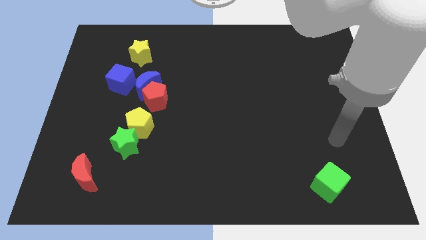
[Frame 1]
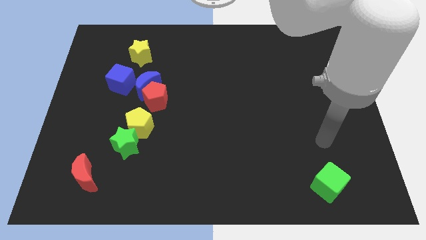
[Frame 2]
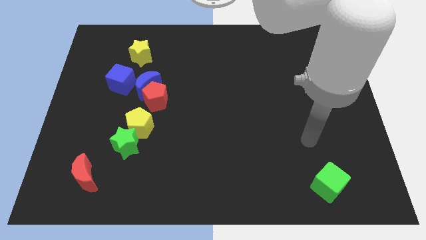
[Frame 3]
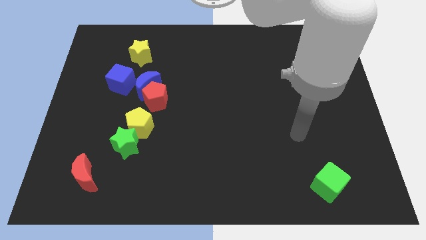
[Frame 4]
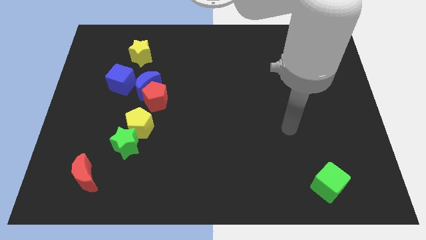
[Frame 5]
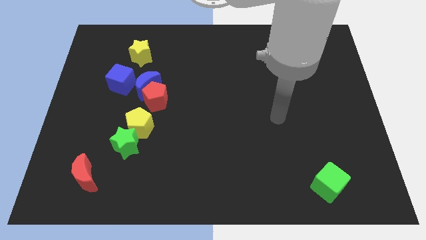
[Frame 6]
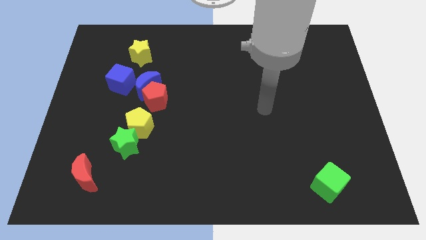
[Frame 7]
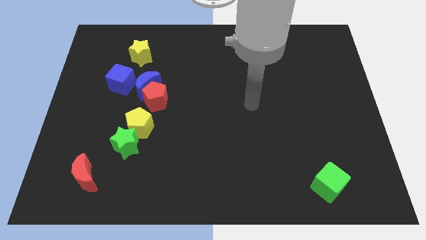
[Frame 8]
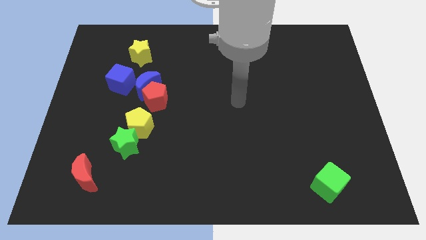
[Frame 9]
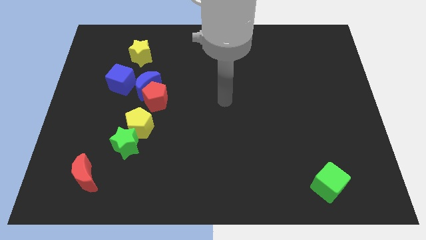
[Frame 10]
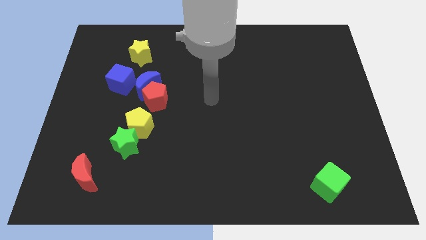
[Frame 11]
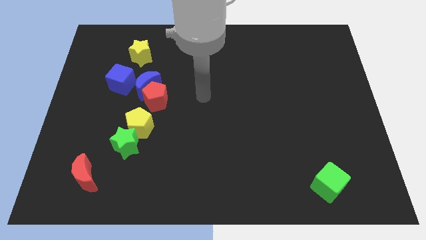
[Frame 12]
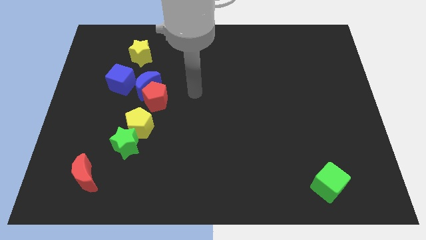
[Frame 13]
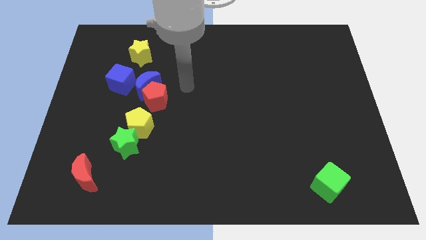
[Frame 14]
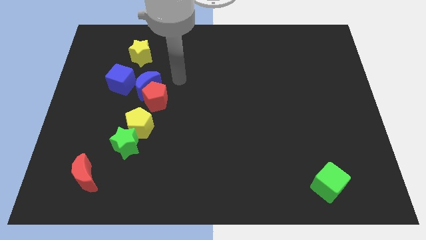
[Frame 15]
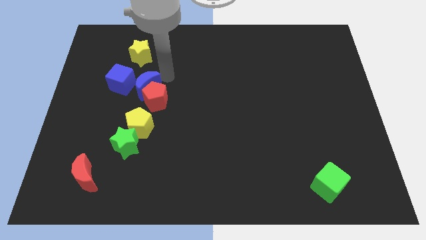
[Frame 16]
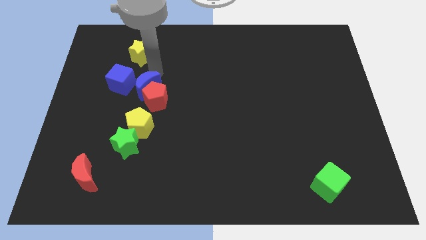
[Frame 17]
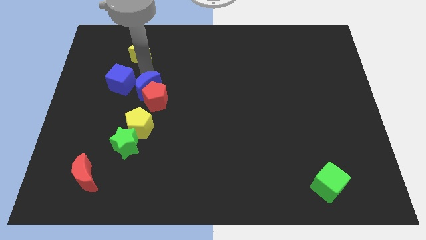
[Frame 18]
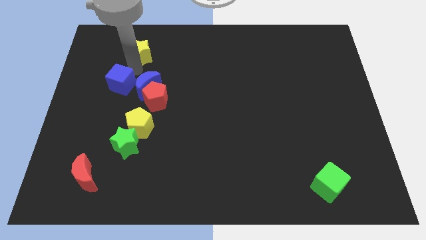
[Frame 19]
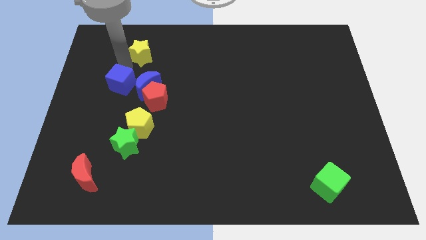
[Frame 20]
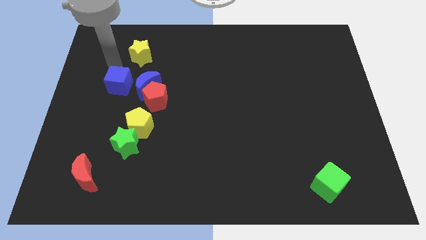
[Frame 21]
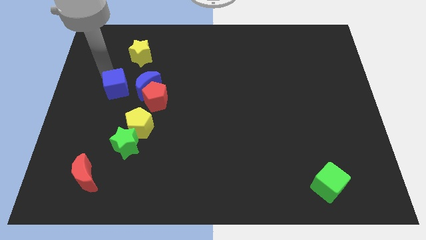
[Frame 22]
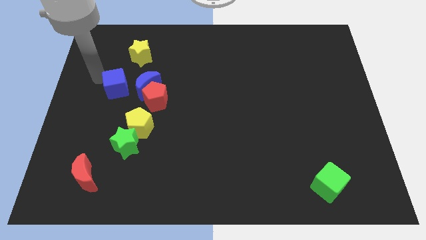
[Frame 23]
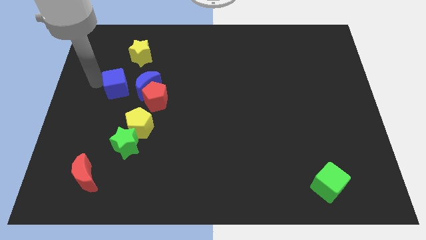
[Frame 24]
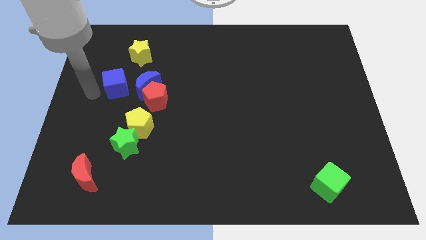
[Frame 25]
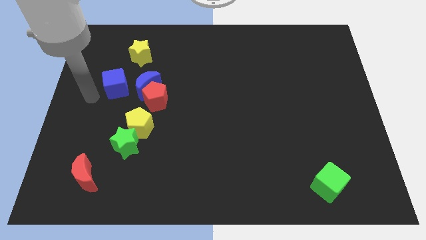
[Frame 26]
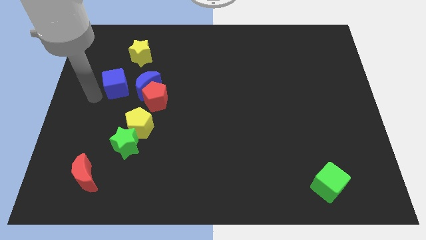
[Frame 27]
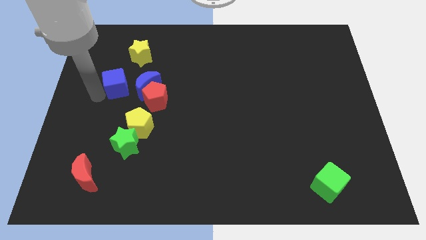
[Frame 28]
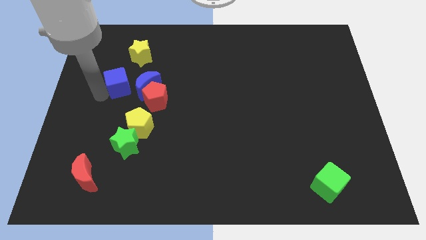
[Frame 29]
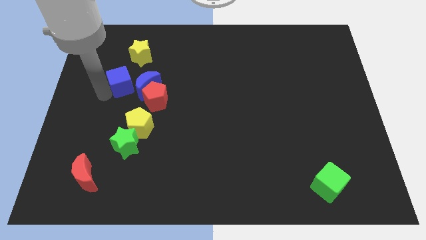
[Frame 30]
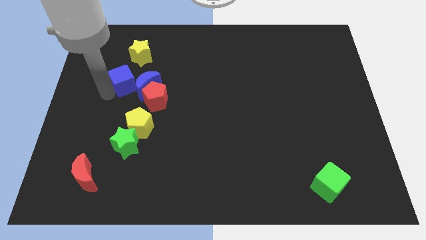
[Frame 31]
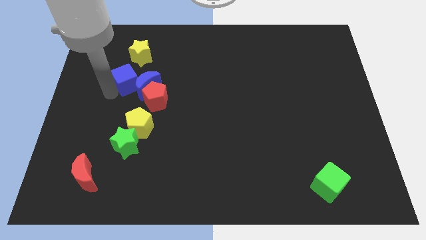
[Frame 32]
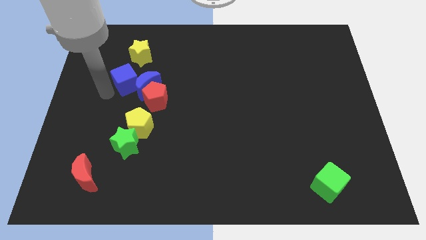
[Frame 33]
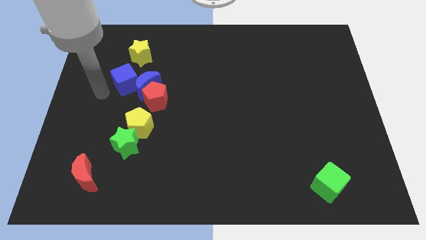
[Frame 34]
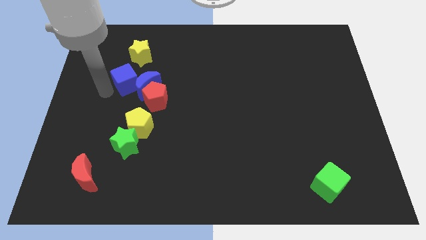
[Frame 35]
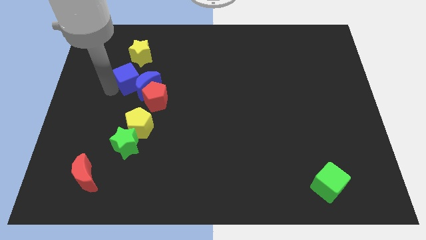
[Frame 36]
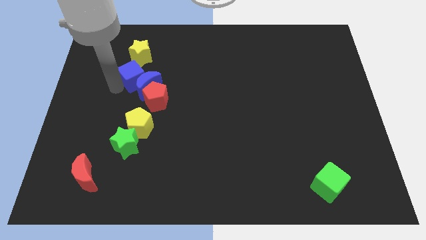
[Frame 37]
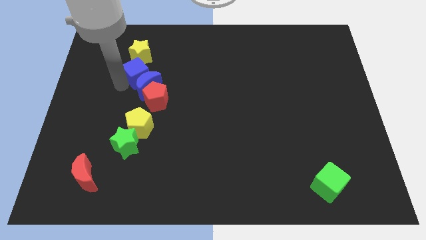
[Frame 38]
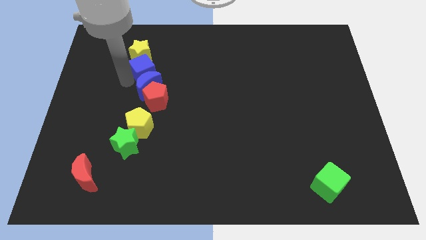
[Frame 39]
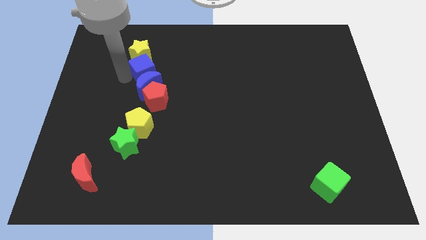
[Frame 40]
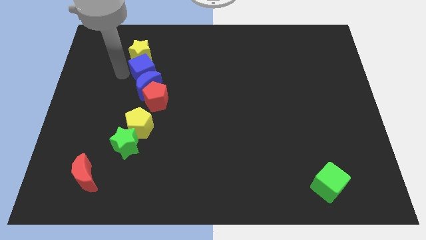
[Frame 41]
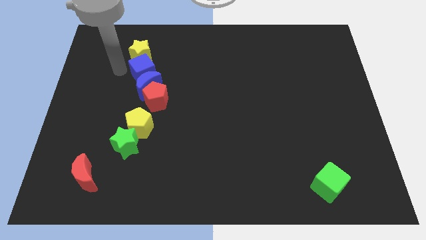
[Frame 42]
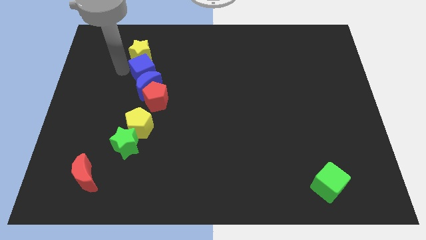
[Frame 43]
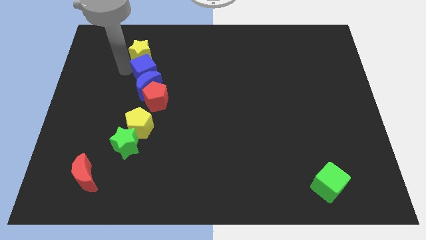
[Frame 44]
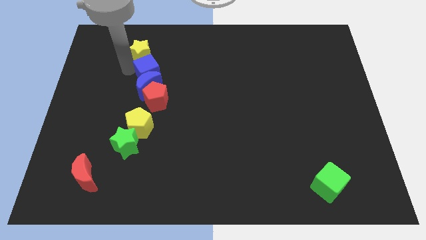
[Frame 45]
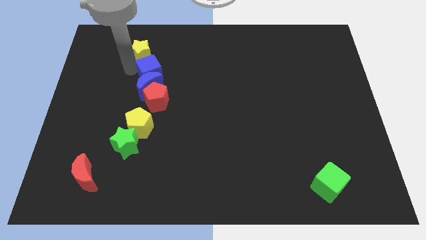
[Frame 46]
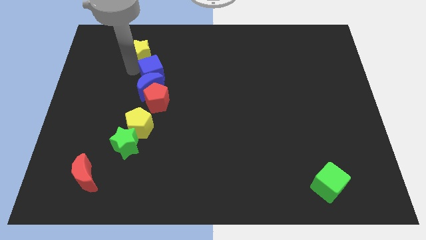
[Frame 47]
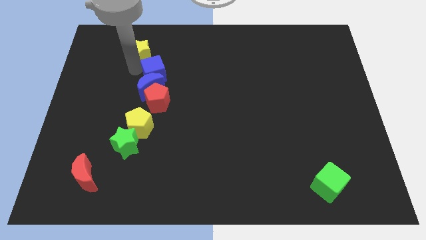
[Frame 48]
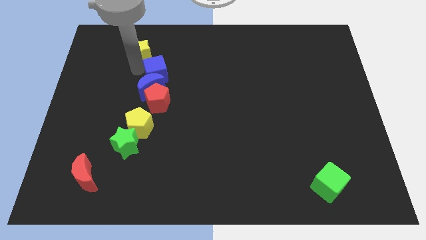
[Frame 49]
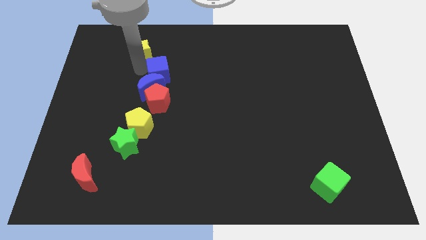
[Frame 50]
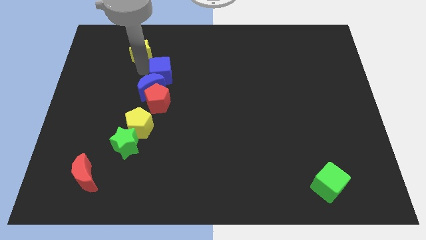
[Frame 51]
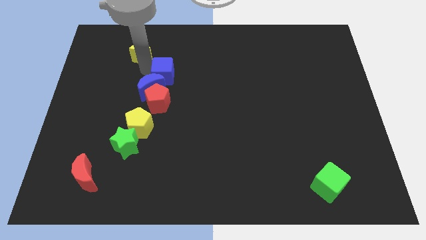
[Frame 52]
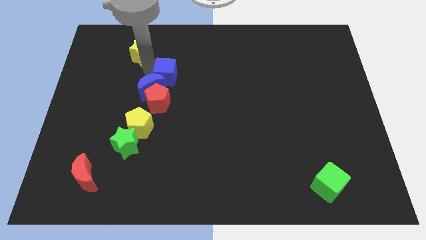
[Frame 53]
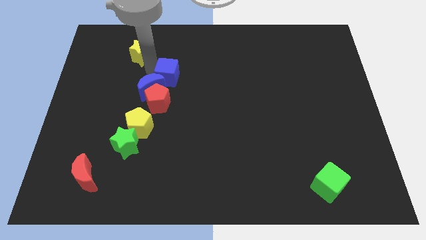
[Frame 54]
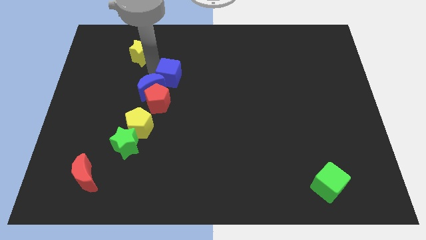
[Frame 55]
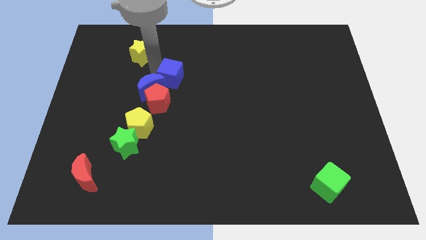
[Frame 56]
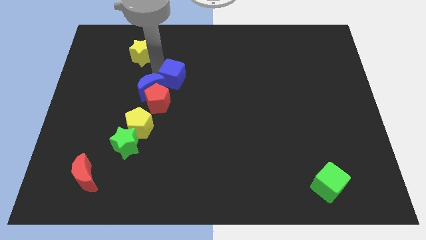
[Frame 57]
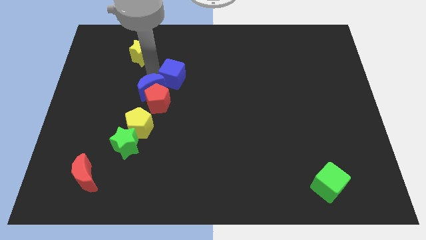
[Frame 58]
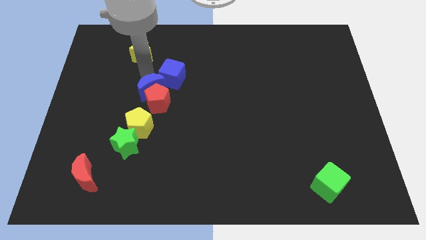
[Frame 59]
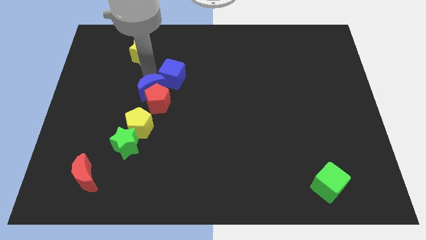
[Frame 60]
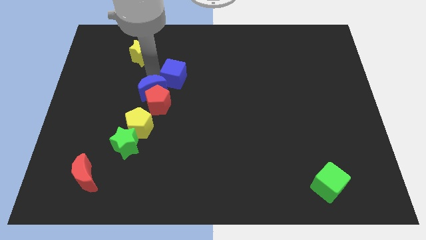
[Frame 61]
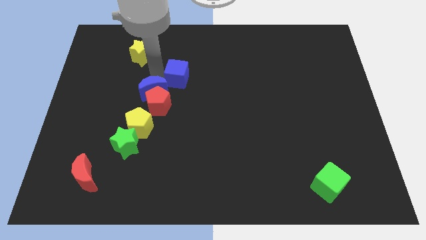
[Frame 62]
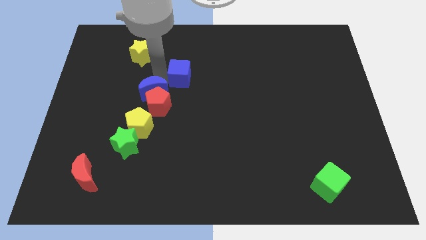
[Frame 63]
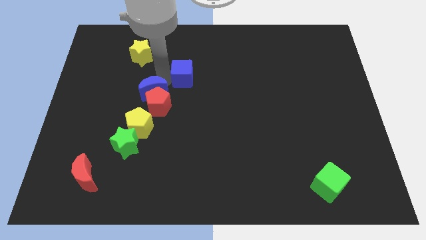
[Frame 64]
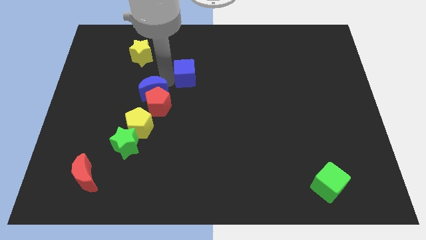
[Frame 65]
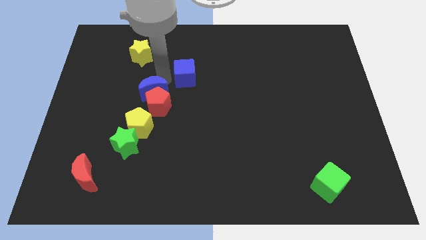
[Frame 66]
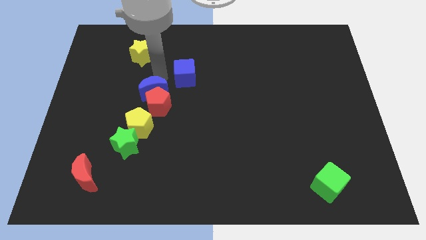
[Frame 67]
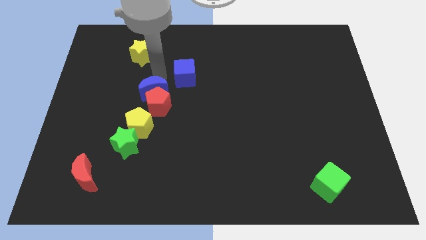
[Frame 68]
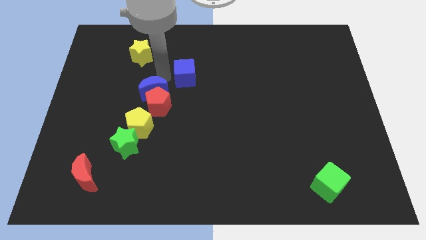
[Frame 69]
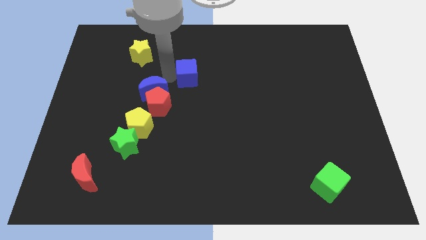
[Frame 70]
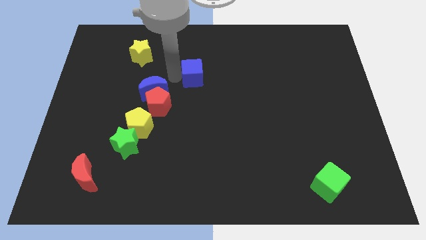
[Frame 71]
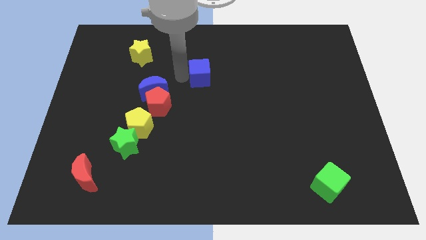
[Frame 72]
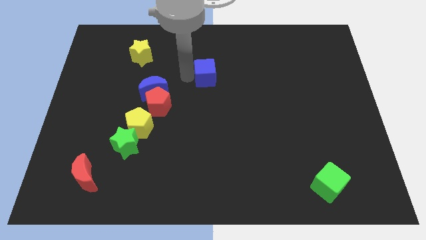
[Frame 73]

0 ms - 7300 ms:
slide the blue cube right

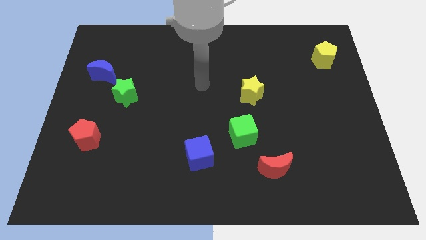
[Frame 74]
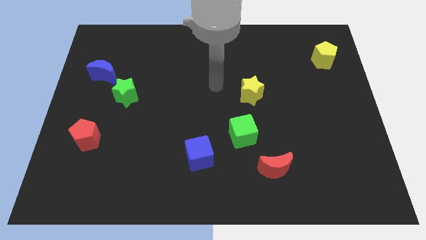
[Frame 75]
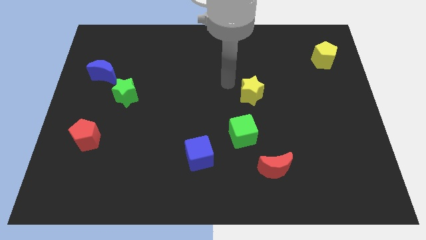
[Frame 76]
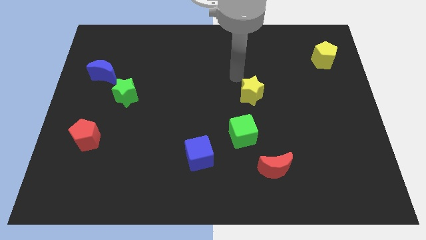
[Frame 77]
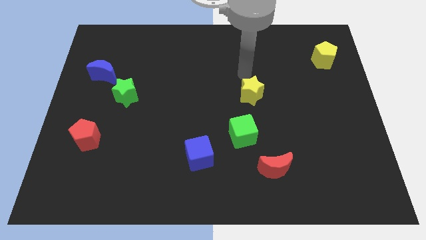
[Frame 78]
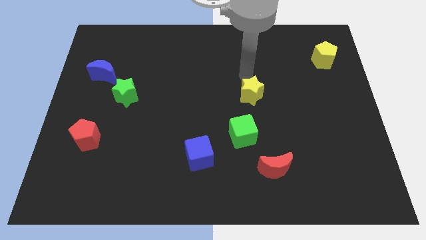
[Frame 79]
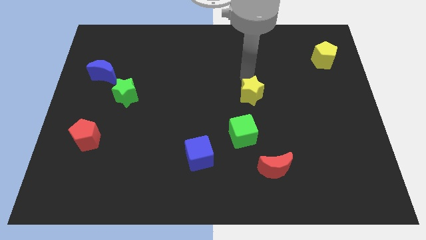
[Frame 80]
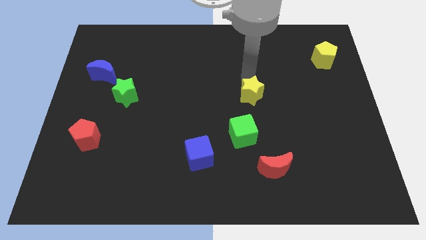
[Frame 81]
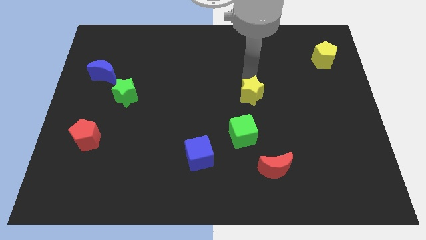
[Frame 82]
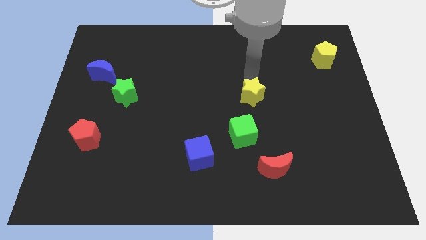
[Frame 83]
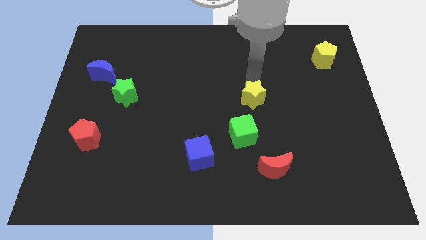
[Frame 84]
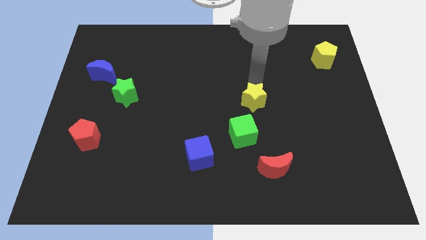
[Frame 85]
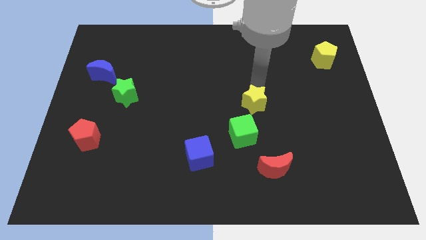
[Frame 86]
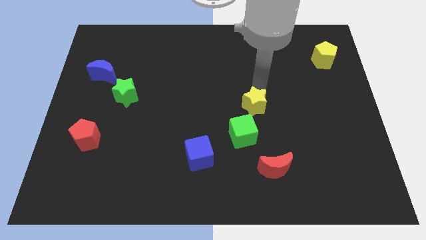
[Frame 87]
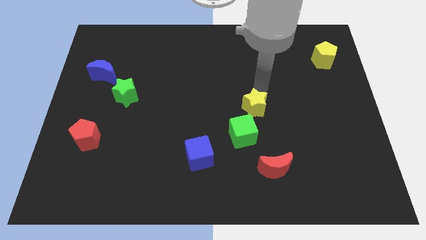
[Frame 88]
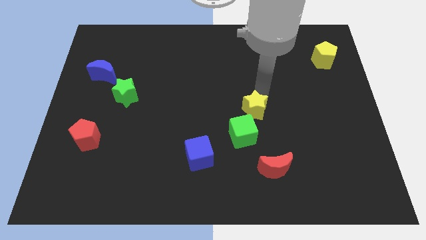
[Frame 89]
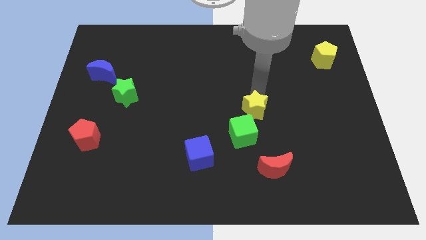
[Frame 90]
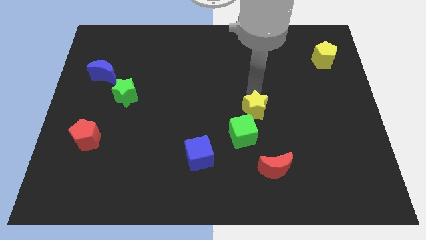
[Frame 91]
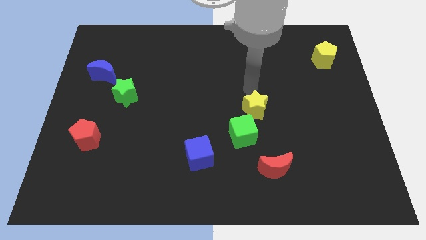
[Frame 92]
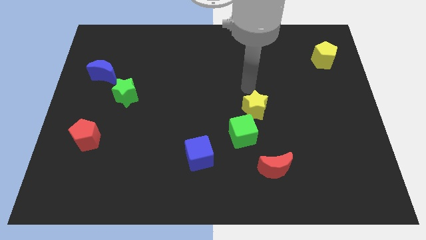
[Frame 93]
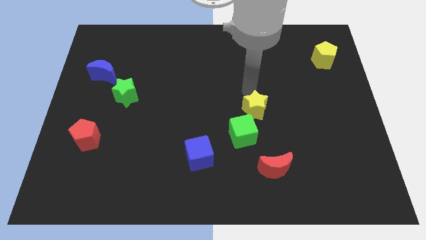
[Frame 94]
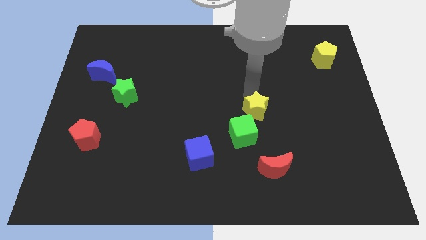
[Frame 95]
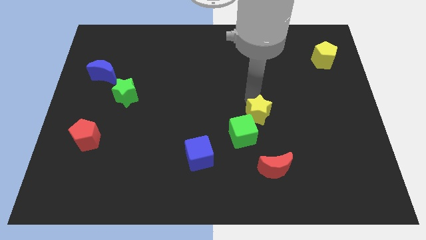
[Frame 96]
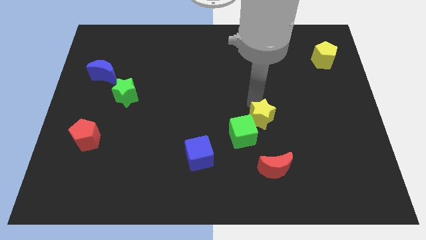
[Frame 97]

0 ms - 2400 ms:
push the yellow star somewhat down
